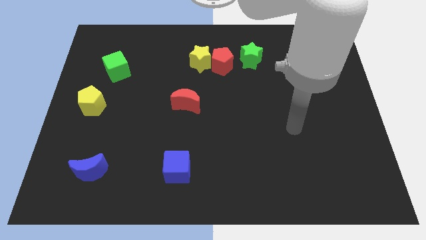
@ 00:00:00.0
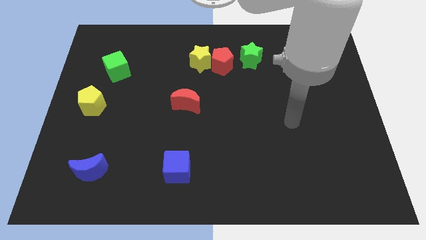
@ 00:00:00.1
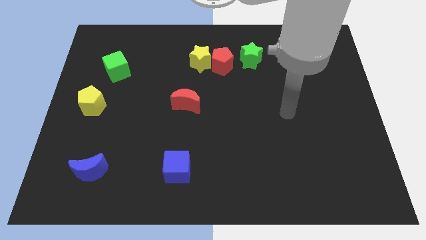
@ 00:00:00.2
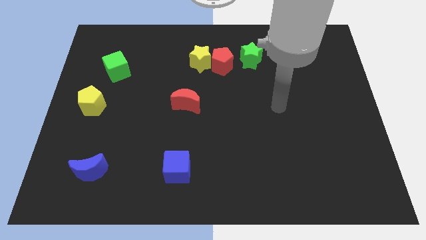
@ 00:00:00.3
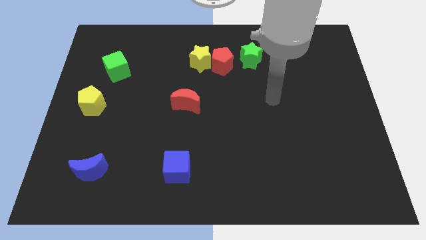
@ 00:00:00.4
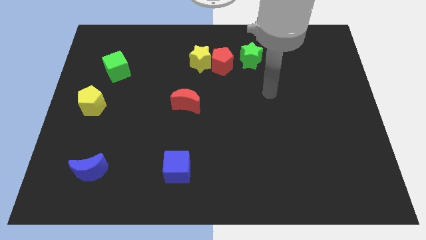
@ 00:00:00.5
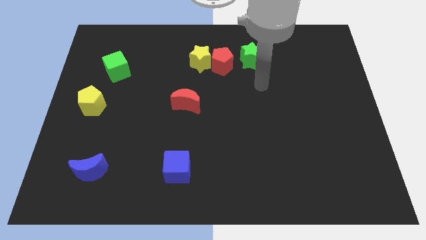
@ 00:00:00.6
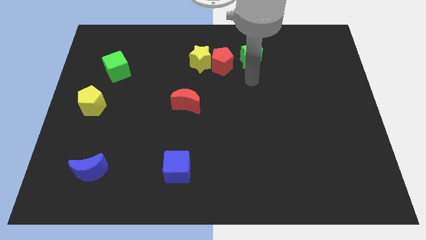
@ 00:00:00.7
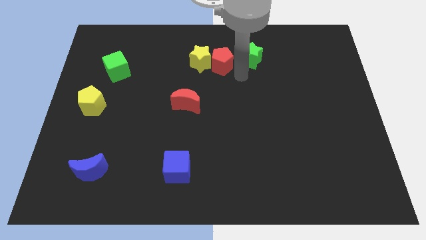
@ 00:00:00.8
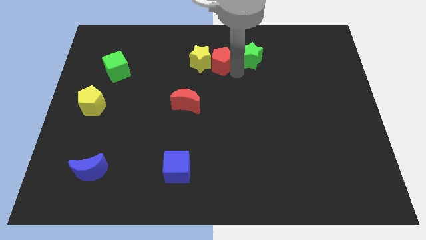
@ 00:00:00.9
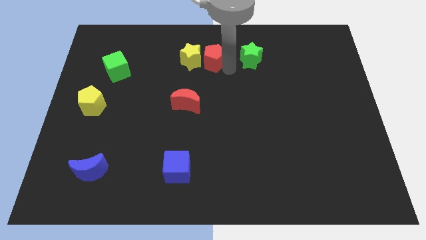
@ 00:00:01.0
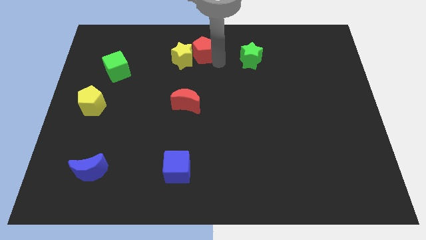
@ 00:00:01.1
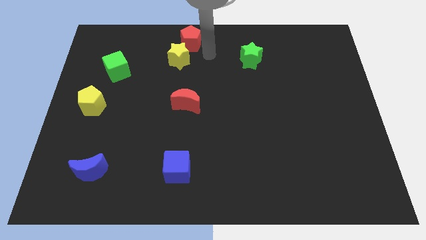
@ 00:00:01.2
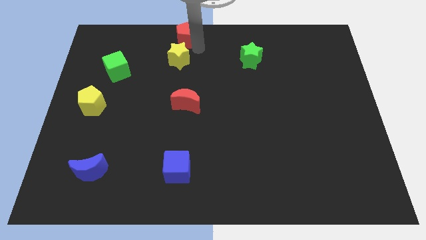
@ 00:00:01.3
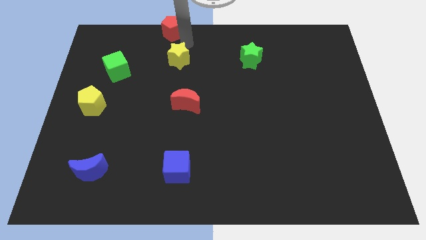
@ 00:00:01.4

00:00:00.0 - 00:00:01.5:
pull the yellow star apart from the red pentagon

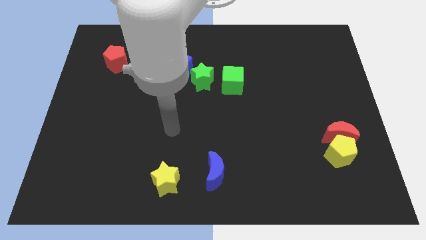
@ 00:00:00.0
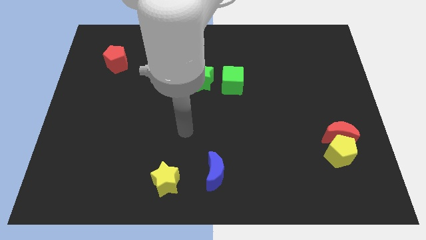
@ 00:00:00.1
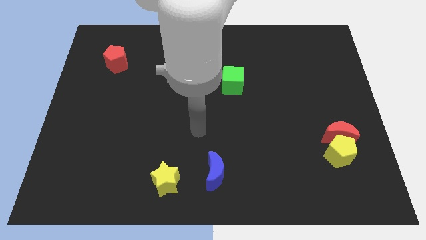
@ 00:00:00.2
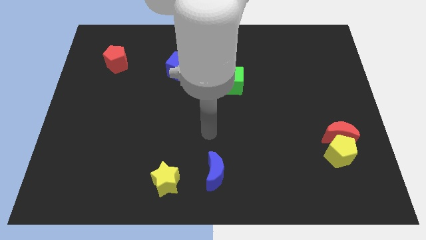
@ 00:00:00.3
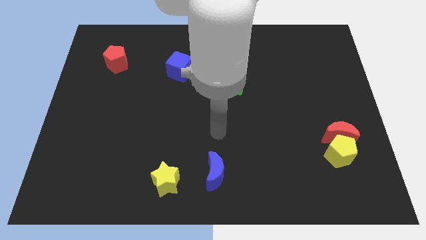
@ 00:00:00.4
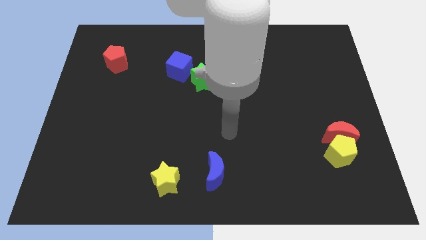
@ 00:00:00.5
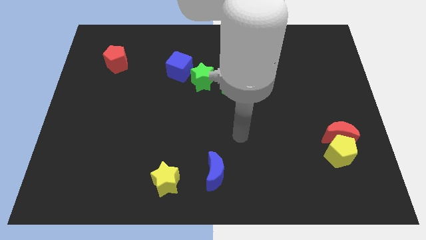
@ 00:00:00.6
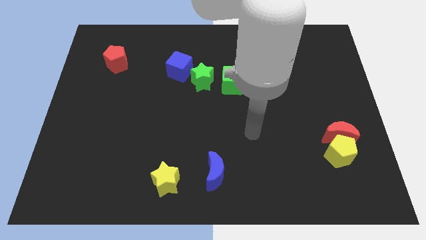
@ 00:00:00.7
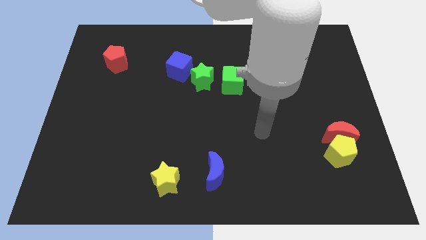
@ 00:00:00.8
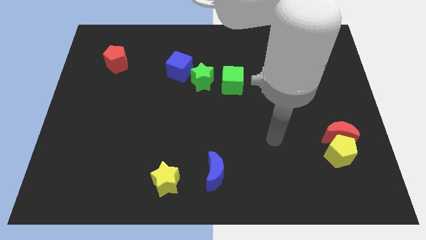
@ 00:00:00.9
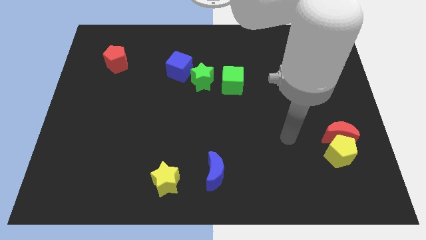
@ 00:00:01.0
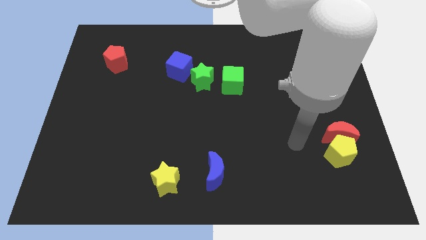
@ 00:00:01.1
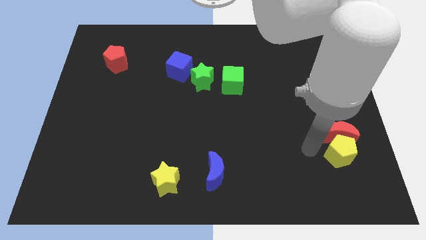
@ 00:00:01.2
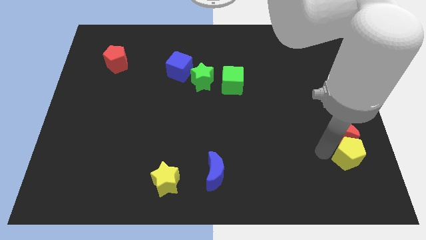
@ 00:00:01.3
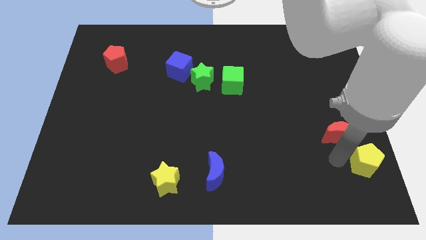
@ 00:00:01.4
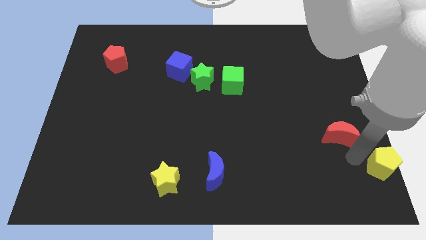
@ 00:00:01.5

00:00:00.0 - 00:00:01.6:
separate the red moon from the yellow pentagon

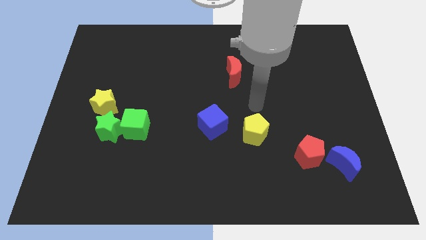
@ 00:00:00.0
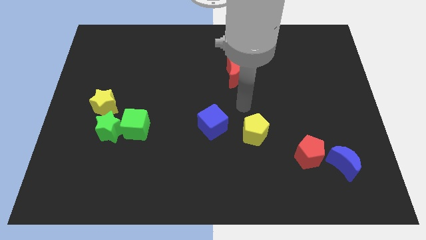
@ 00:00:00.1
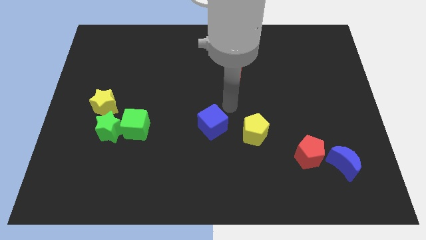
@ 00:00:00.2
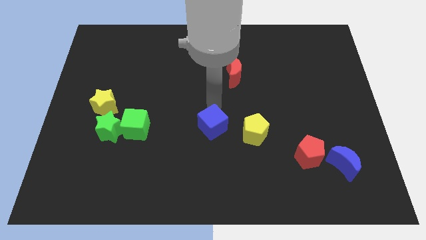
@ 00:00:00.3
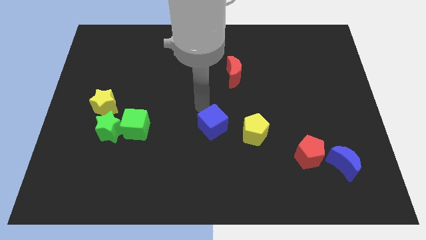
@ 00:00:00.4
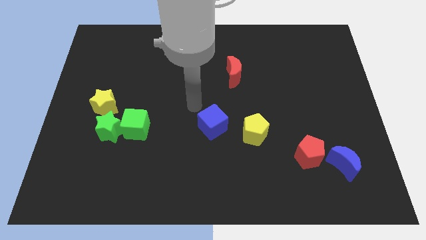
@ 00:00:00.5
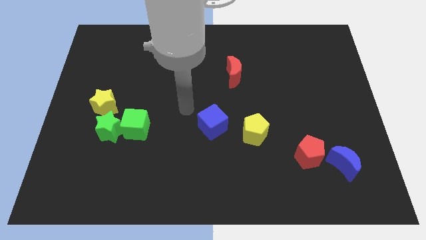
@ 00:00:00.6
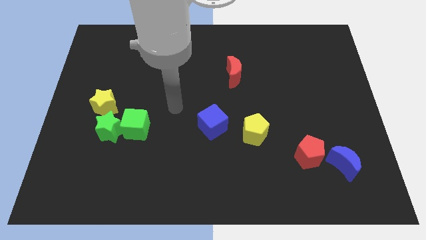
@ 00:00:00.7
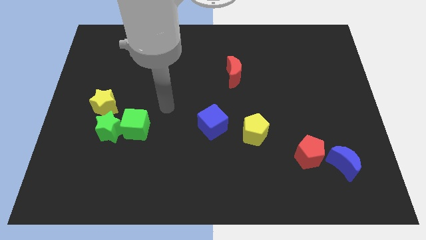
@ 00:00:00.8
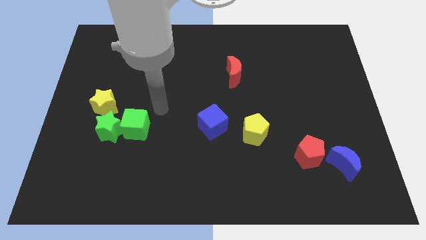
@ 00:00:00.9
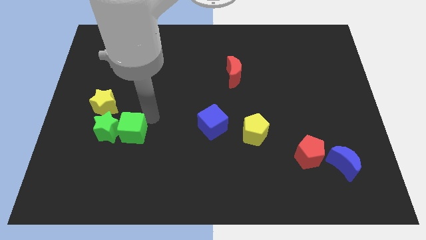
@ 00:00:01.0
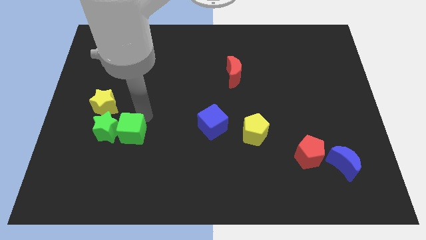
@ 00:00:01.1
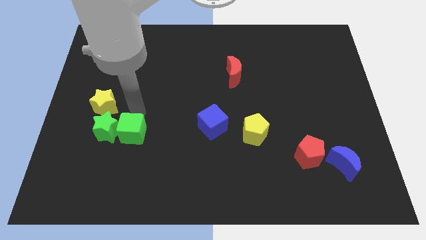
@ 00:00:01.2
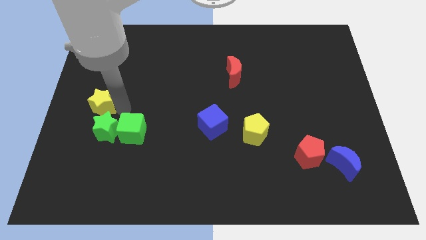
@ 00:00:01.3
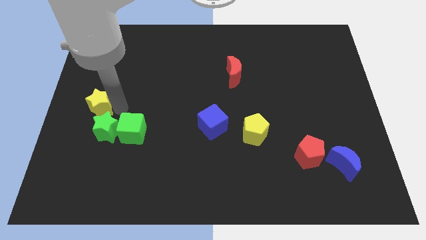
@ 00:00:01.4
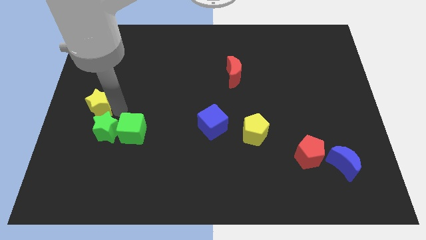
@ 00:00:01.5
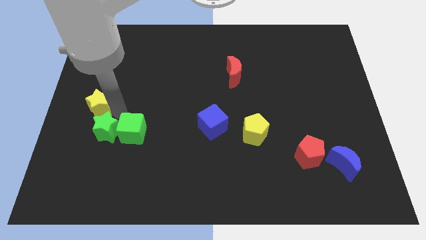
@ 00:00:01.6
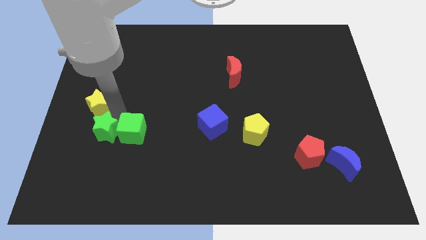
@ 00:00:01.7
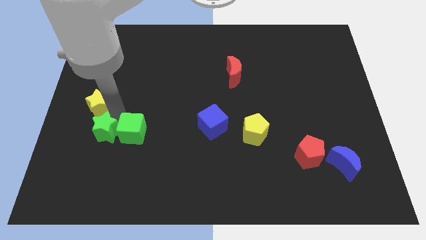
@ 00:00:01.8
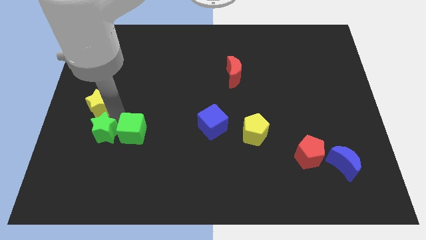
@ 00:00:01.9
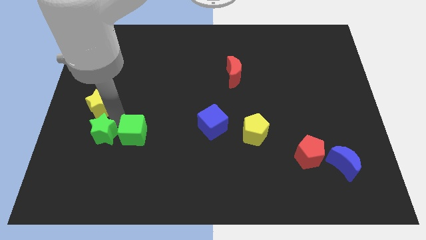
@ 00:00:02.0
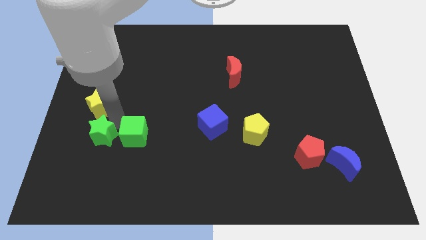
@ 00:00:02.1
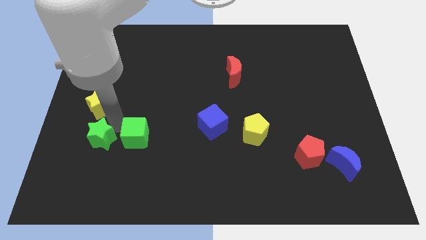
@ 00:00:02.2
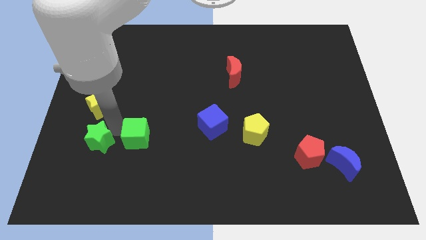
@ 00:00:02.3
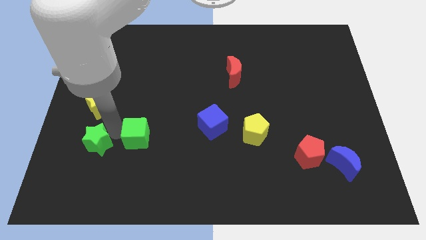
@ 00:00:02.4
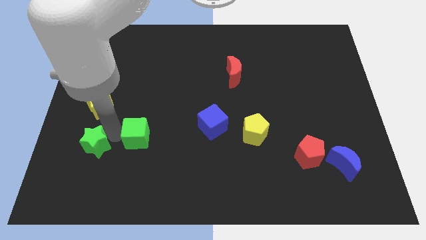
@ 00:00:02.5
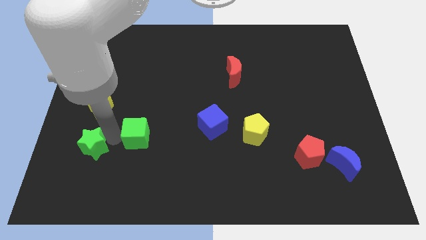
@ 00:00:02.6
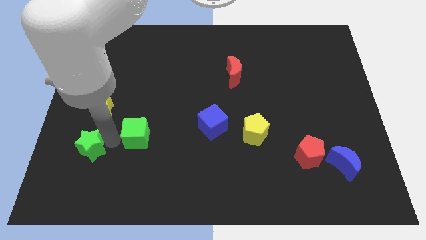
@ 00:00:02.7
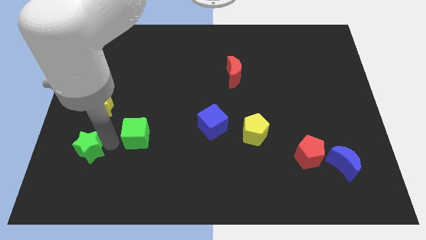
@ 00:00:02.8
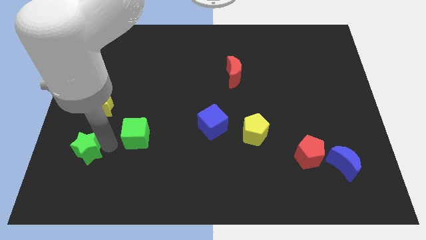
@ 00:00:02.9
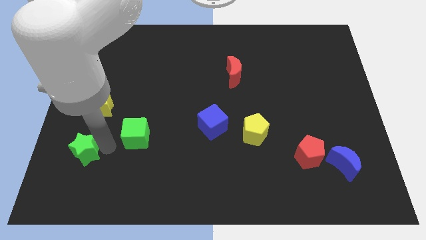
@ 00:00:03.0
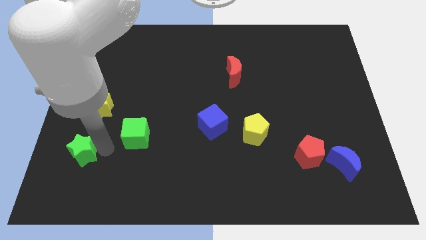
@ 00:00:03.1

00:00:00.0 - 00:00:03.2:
move the green star away from the green cube and yellow star

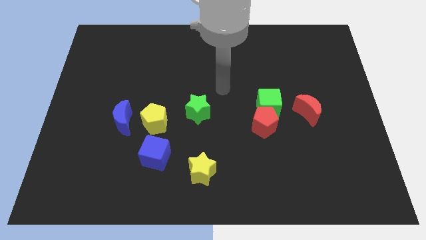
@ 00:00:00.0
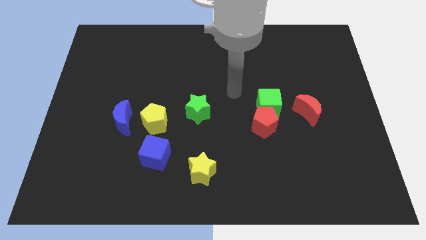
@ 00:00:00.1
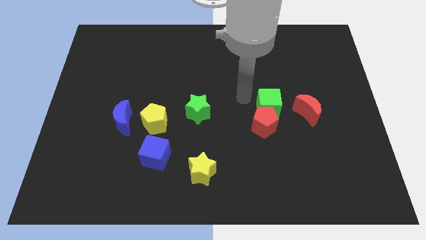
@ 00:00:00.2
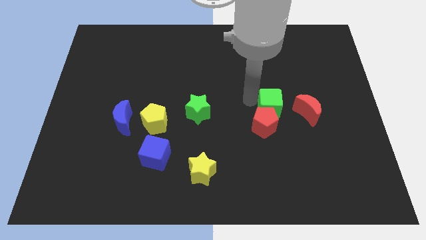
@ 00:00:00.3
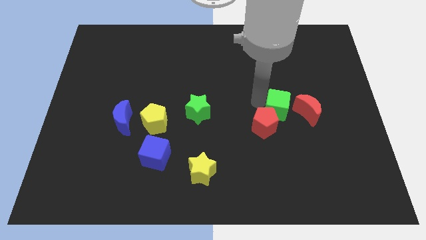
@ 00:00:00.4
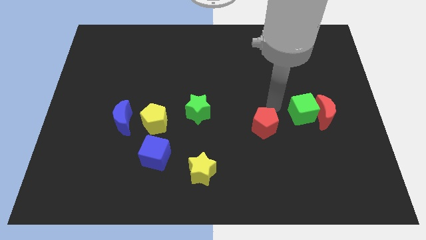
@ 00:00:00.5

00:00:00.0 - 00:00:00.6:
move the red pentagon away from the green cube

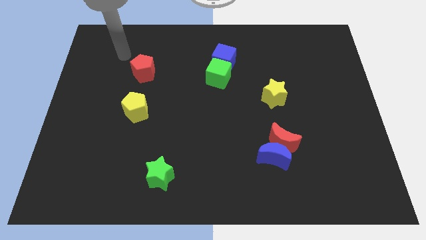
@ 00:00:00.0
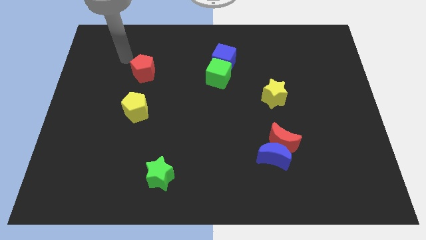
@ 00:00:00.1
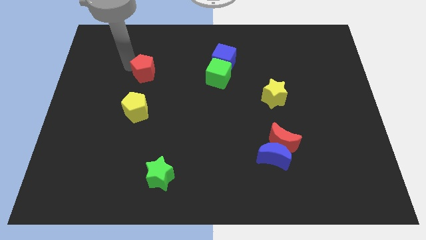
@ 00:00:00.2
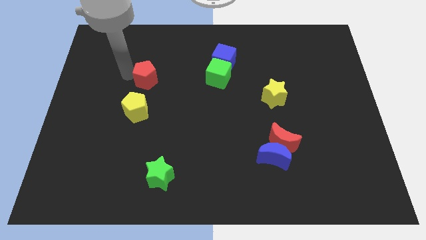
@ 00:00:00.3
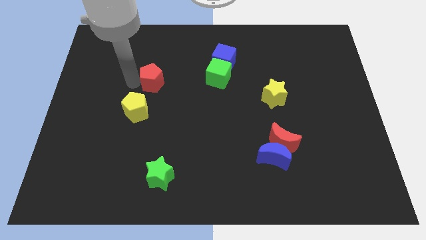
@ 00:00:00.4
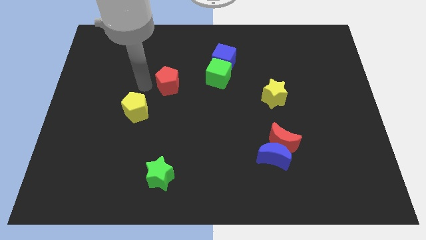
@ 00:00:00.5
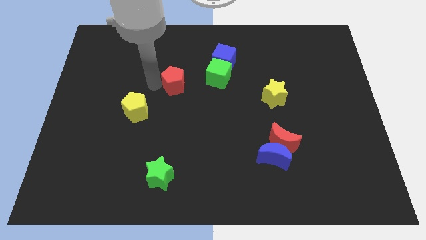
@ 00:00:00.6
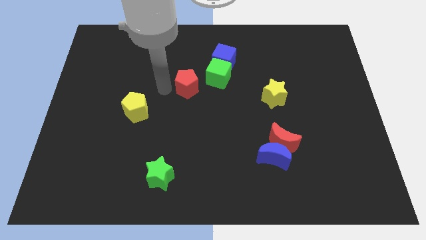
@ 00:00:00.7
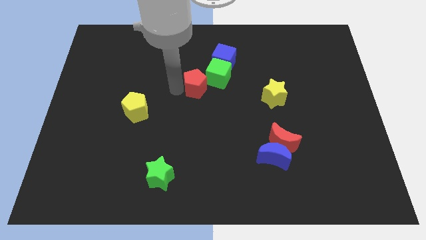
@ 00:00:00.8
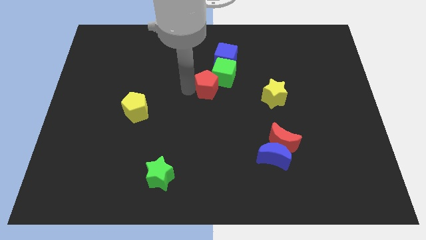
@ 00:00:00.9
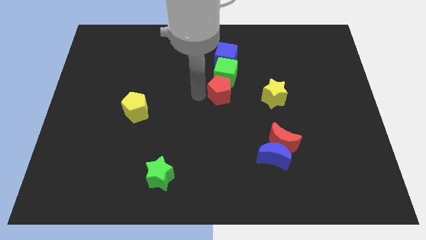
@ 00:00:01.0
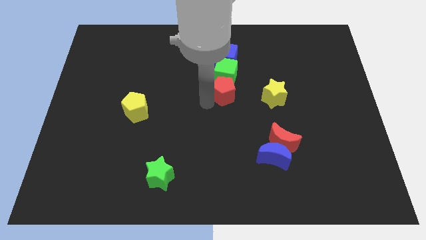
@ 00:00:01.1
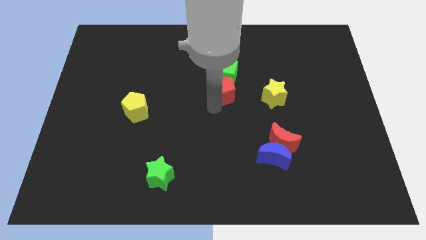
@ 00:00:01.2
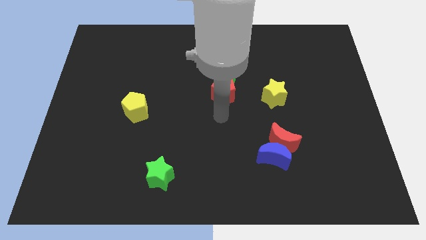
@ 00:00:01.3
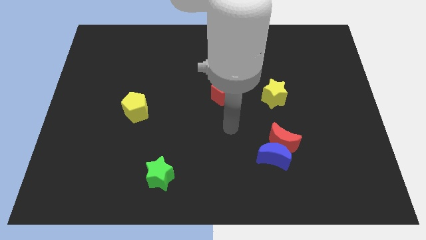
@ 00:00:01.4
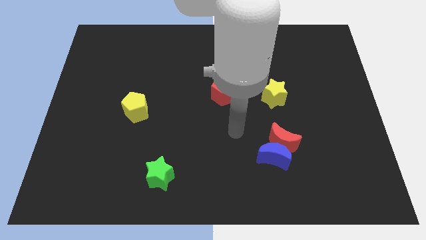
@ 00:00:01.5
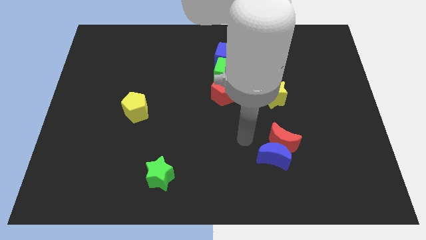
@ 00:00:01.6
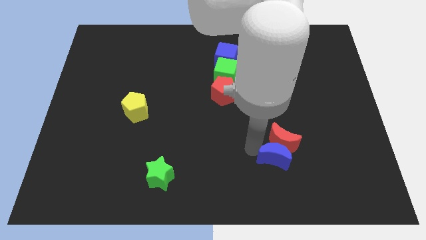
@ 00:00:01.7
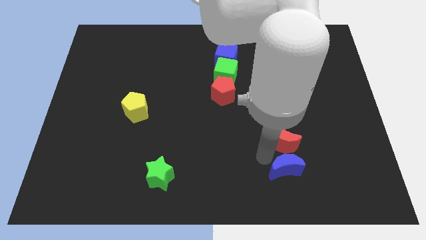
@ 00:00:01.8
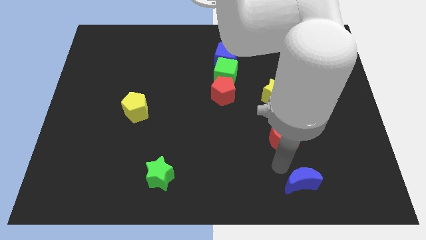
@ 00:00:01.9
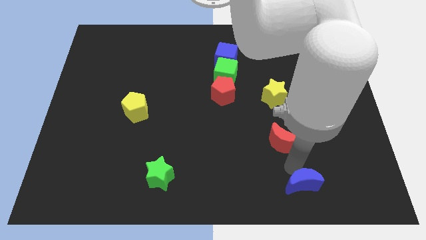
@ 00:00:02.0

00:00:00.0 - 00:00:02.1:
move the red moon away from the blue moon

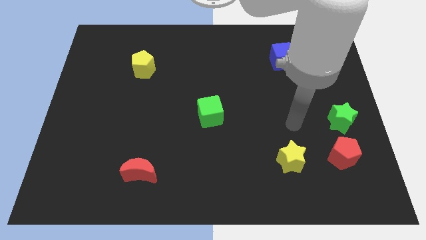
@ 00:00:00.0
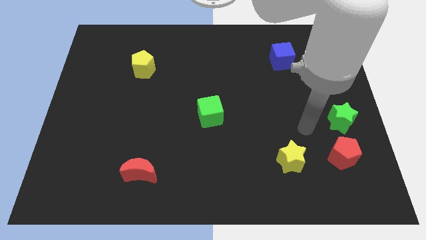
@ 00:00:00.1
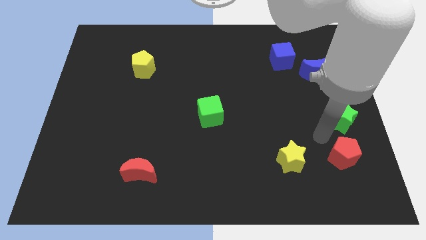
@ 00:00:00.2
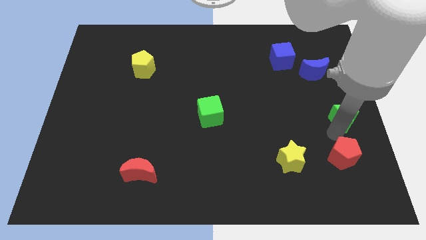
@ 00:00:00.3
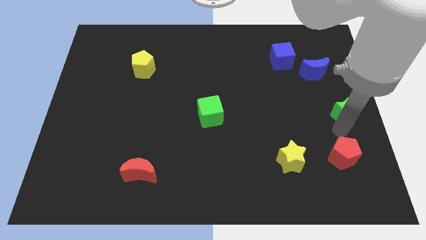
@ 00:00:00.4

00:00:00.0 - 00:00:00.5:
separate the red pentagon from the green star
